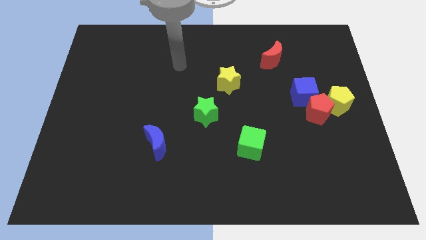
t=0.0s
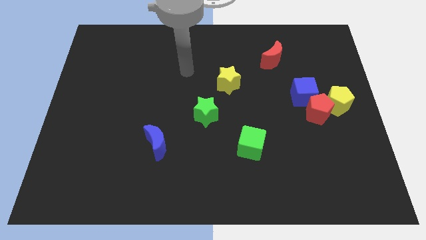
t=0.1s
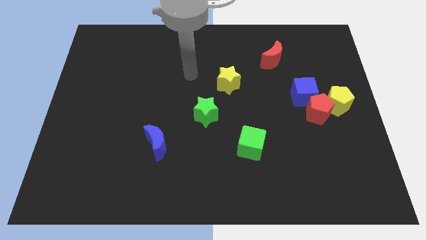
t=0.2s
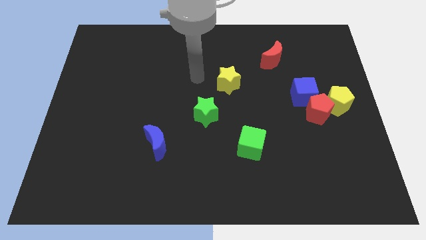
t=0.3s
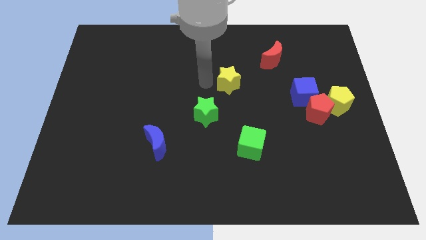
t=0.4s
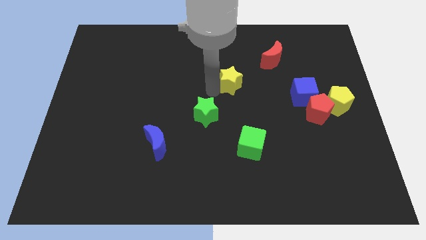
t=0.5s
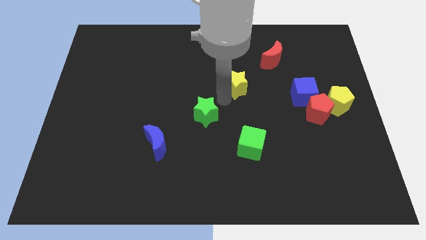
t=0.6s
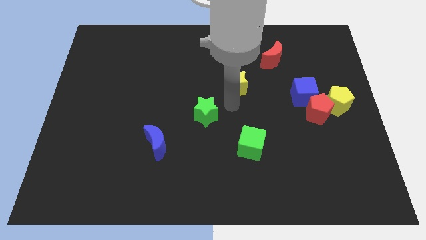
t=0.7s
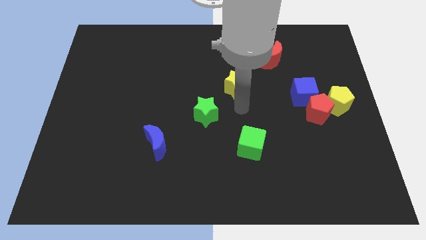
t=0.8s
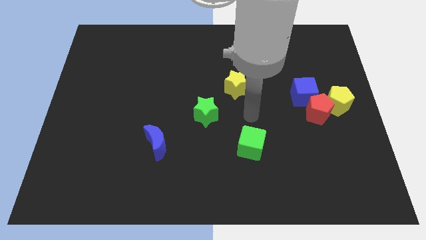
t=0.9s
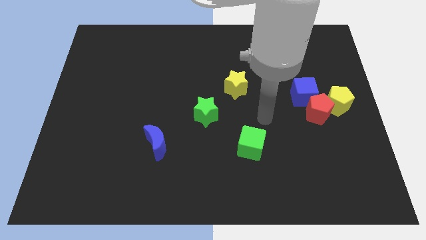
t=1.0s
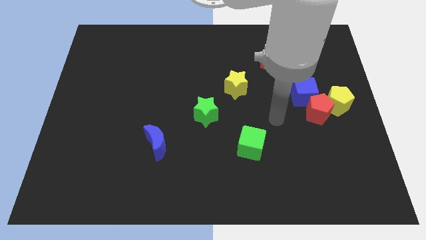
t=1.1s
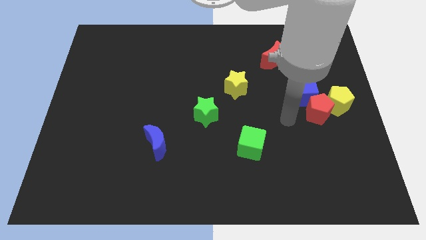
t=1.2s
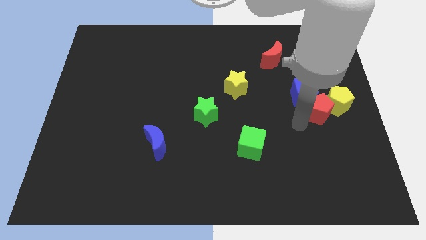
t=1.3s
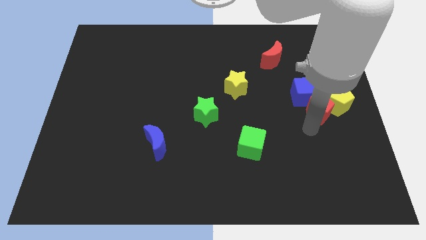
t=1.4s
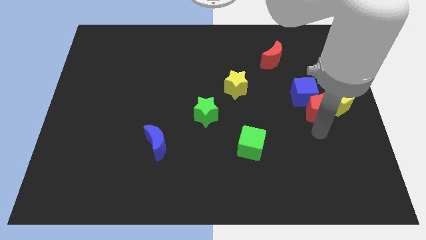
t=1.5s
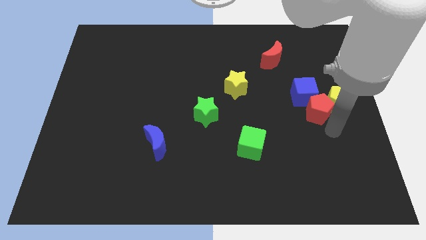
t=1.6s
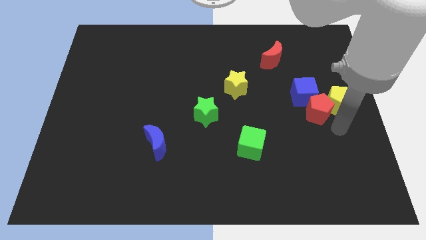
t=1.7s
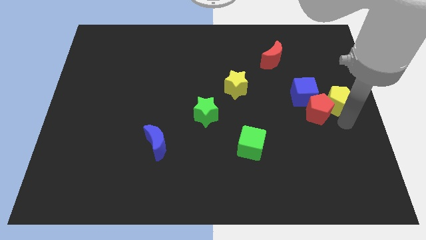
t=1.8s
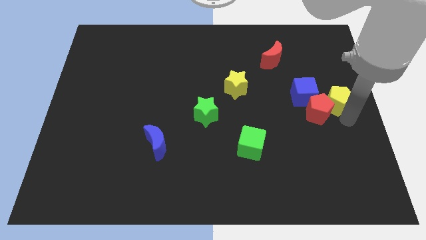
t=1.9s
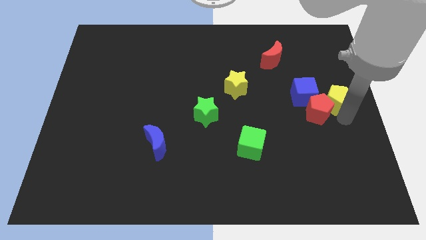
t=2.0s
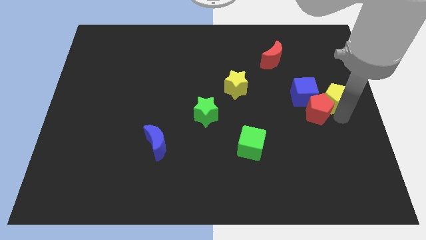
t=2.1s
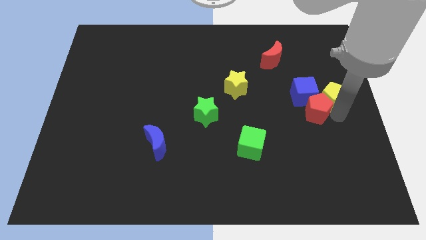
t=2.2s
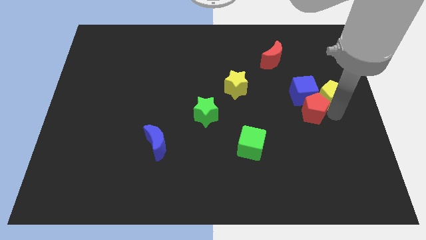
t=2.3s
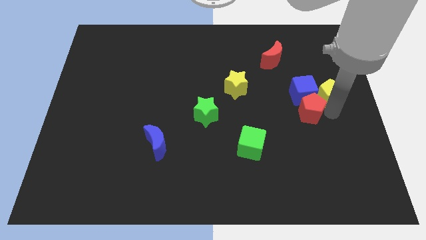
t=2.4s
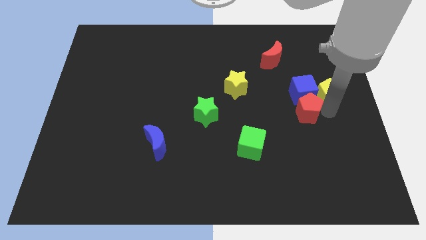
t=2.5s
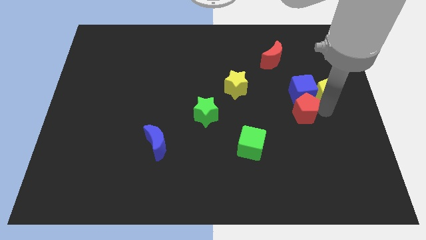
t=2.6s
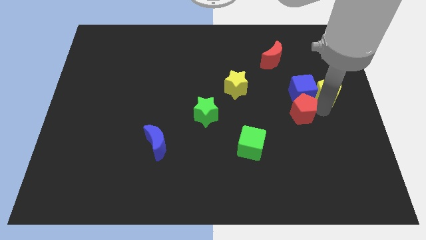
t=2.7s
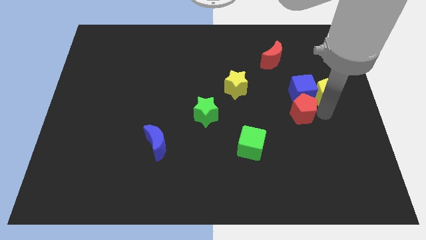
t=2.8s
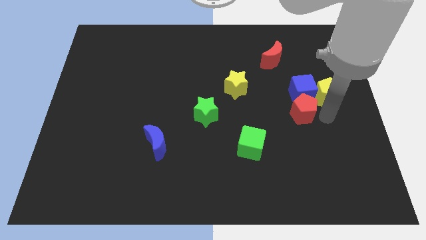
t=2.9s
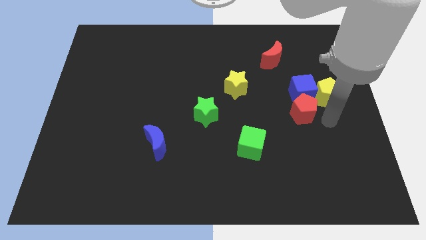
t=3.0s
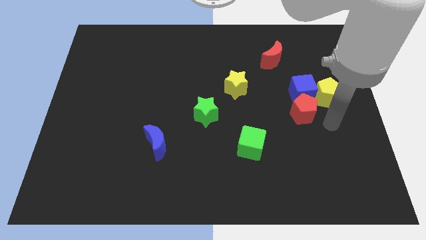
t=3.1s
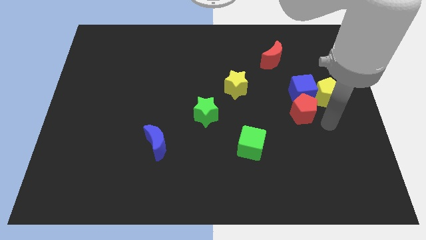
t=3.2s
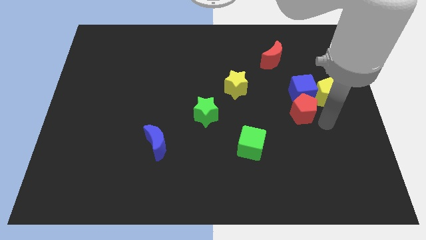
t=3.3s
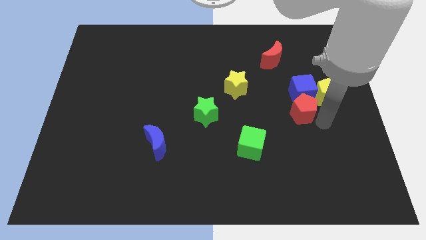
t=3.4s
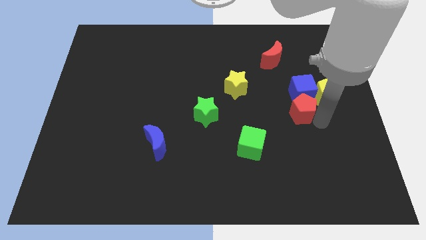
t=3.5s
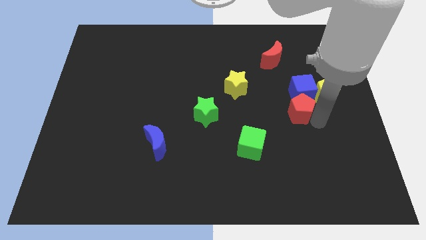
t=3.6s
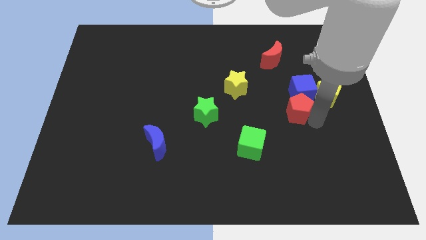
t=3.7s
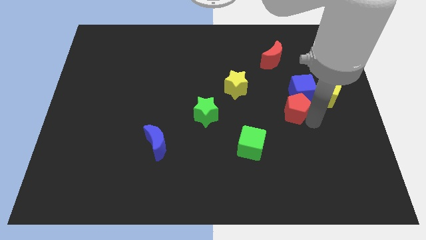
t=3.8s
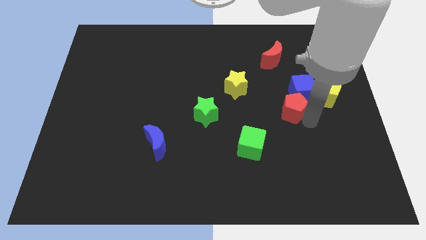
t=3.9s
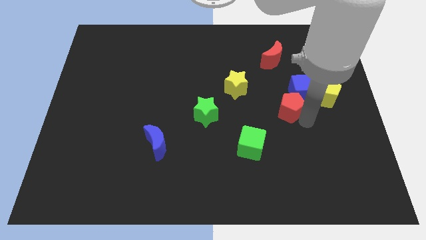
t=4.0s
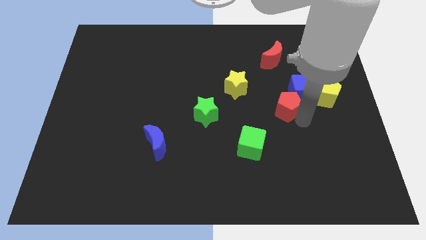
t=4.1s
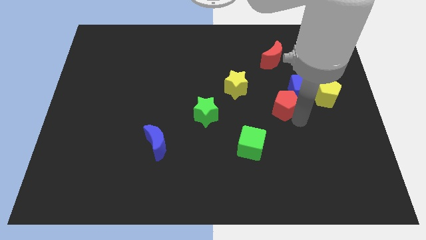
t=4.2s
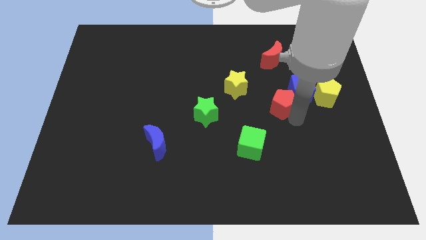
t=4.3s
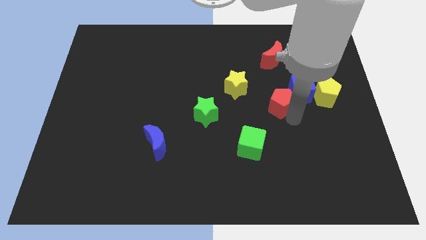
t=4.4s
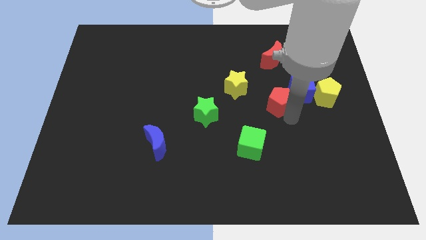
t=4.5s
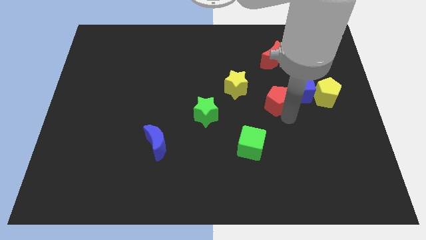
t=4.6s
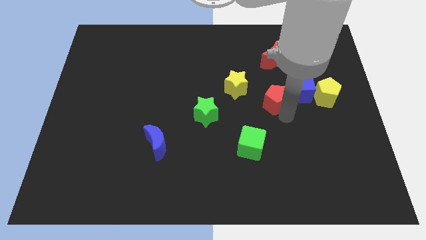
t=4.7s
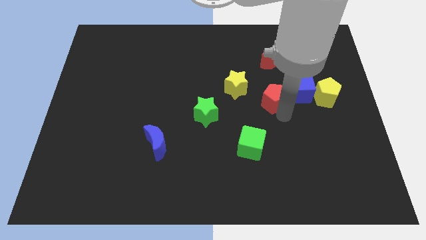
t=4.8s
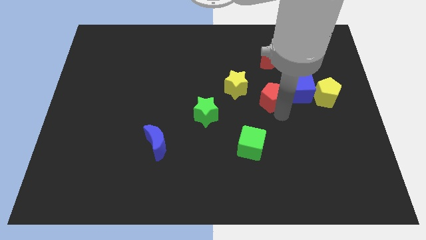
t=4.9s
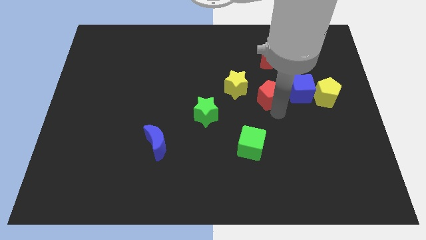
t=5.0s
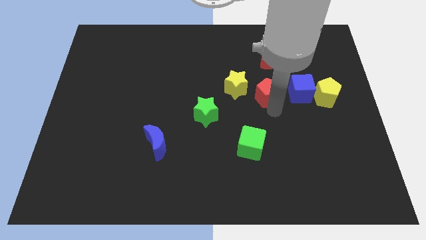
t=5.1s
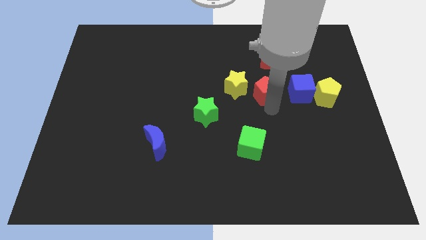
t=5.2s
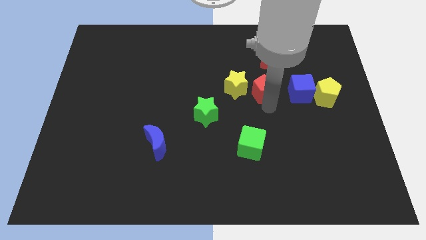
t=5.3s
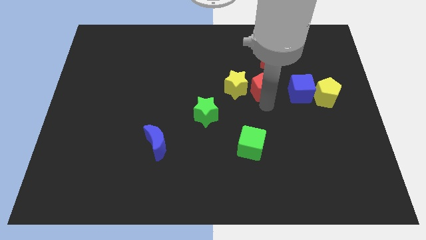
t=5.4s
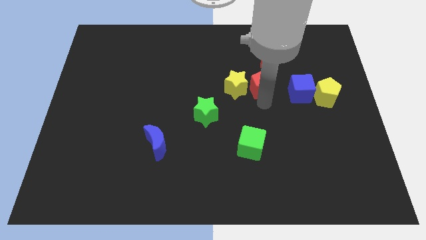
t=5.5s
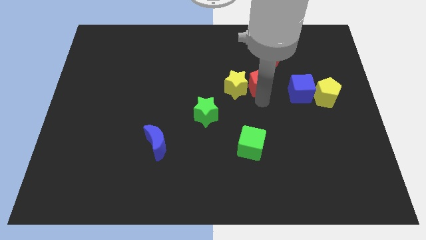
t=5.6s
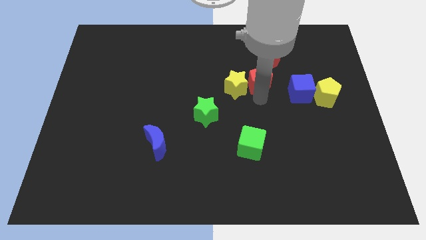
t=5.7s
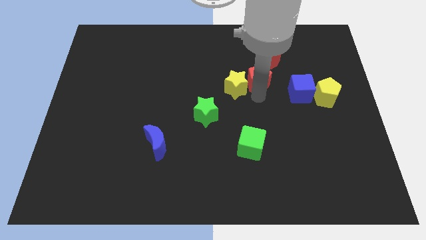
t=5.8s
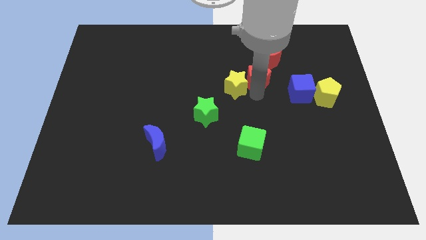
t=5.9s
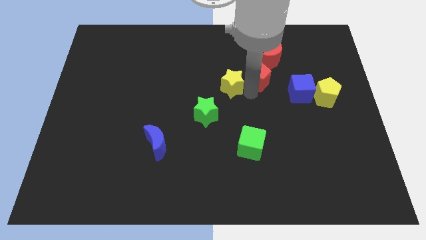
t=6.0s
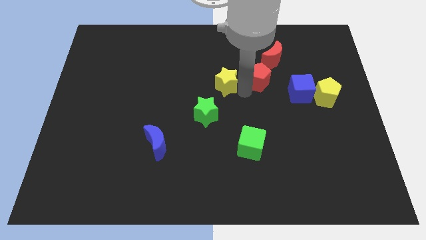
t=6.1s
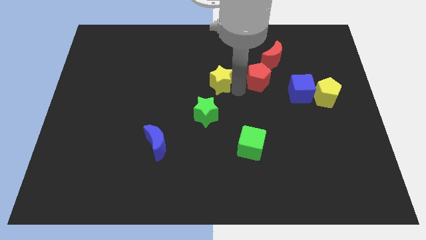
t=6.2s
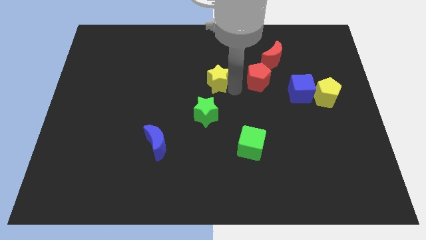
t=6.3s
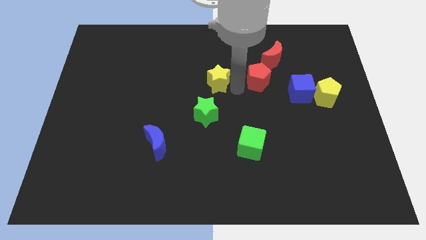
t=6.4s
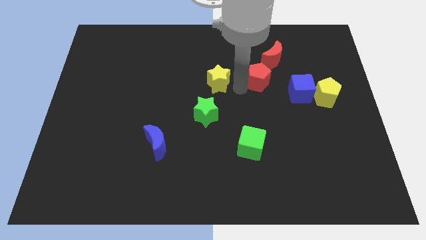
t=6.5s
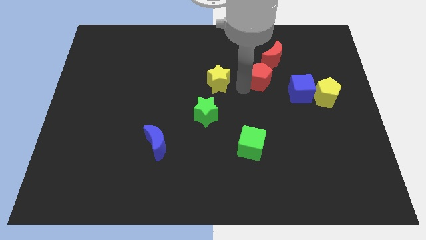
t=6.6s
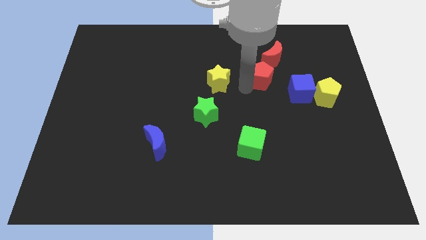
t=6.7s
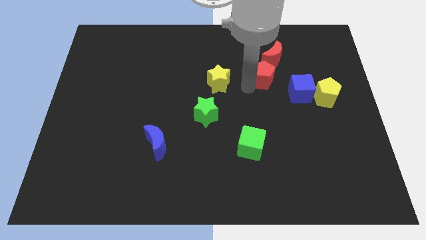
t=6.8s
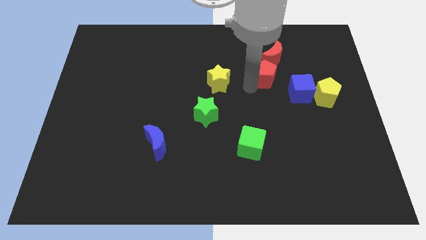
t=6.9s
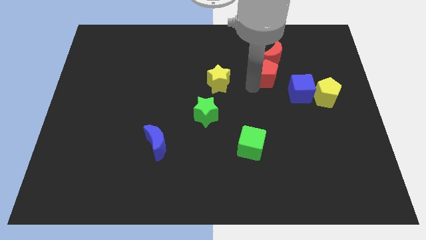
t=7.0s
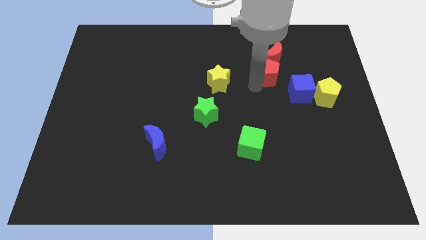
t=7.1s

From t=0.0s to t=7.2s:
put the red pentagon next to the red moon

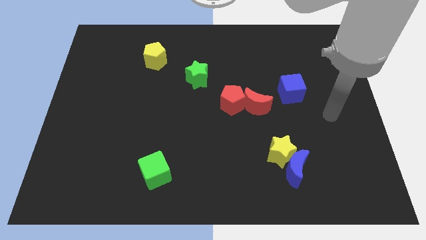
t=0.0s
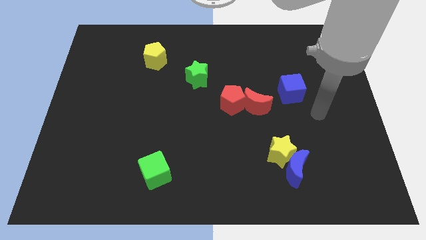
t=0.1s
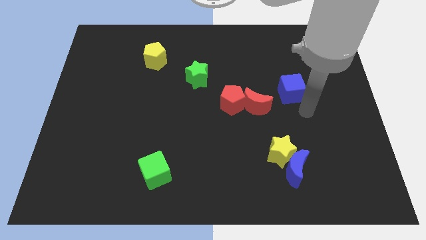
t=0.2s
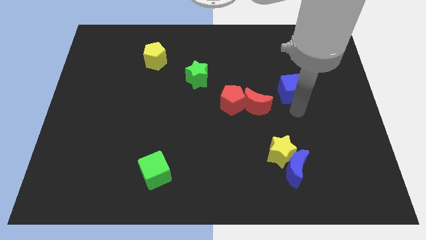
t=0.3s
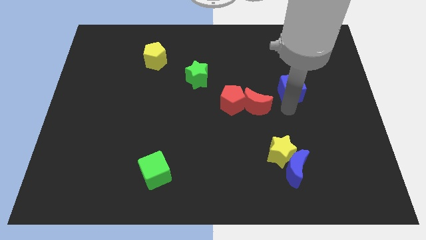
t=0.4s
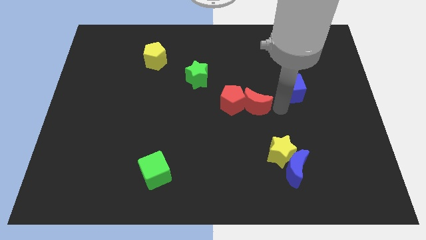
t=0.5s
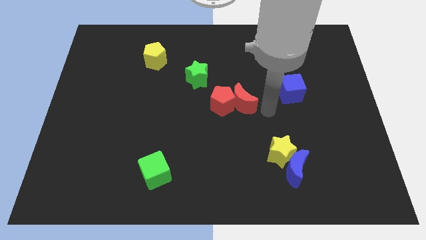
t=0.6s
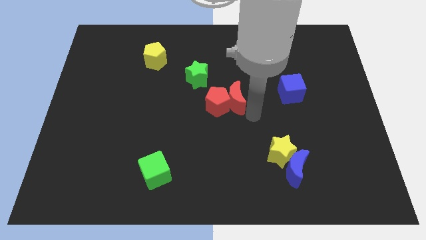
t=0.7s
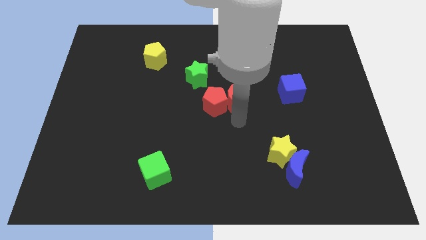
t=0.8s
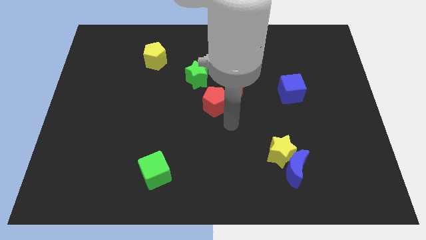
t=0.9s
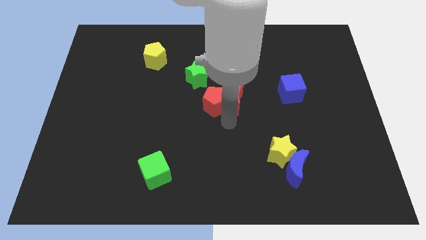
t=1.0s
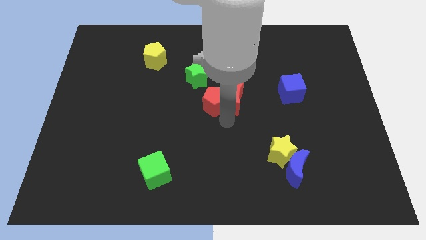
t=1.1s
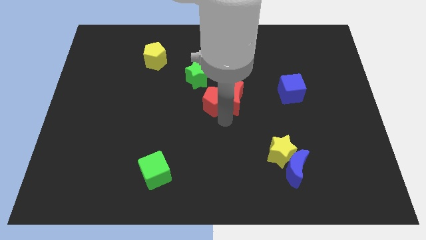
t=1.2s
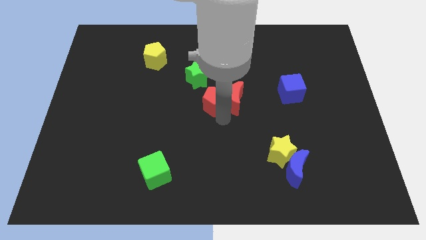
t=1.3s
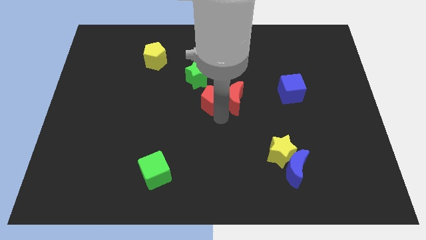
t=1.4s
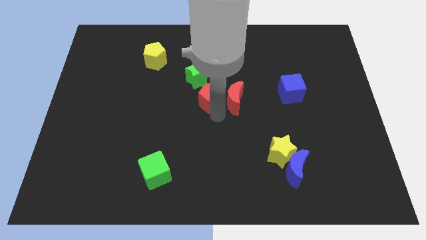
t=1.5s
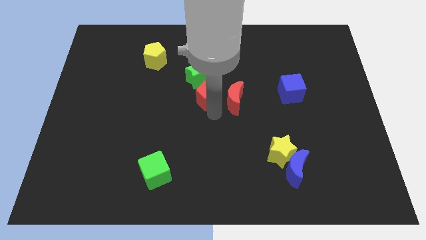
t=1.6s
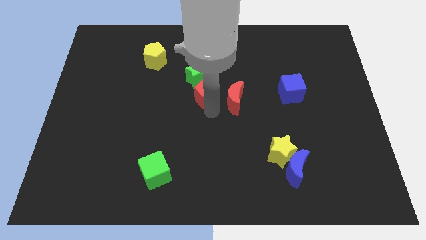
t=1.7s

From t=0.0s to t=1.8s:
put the red pentagon next to the green star
